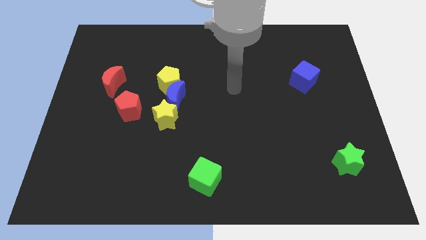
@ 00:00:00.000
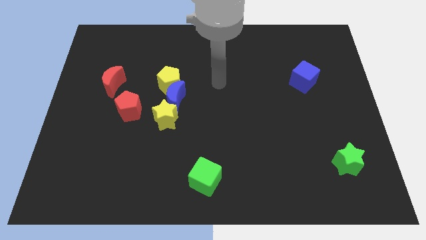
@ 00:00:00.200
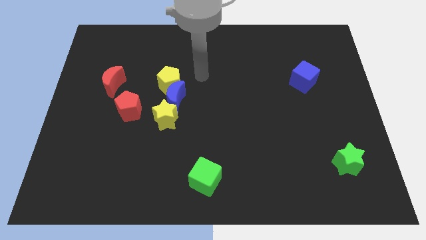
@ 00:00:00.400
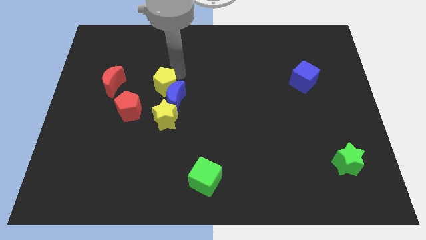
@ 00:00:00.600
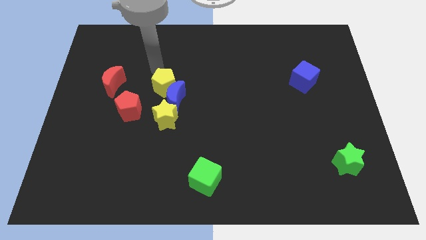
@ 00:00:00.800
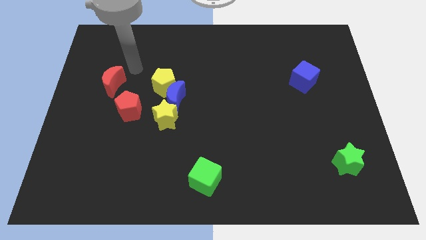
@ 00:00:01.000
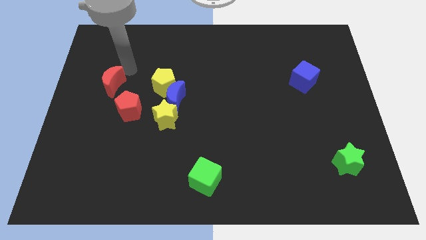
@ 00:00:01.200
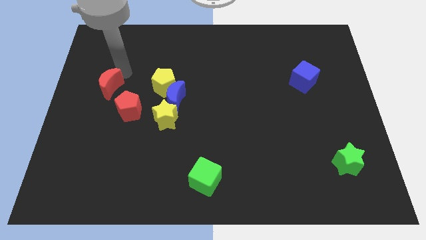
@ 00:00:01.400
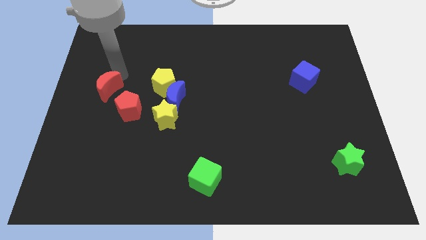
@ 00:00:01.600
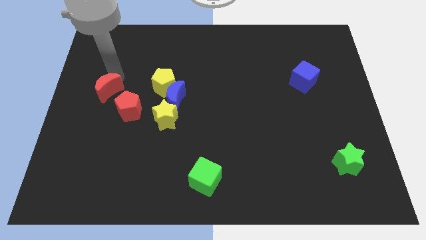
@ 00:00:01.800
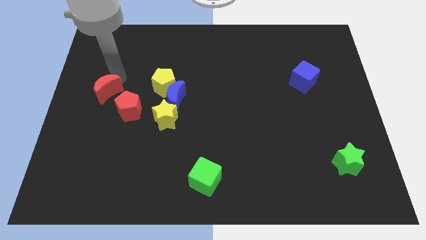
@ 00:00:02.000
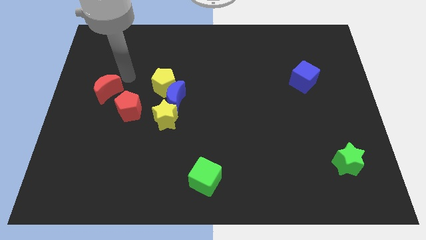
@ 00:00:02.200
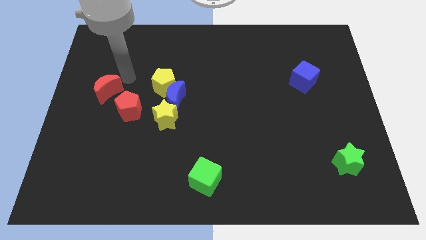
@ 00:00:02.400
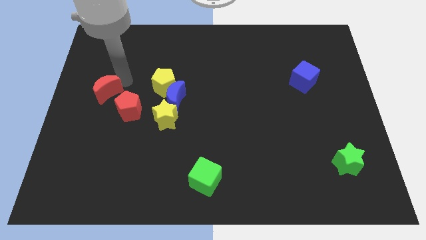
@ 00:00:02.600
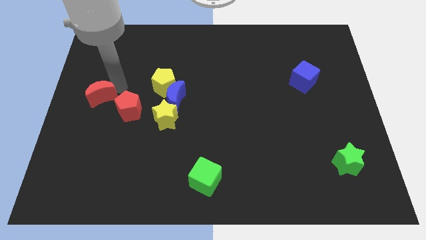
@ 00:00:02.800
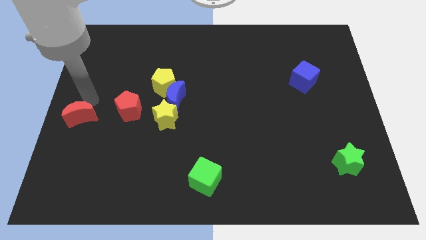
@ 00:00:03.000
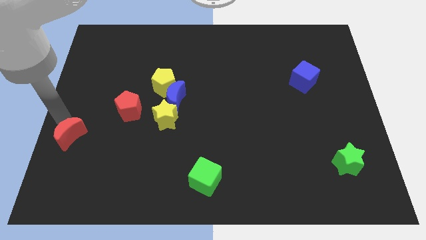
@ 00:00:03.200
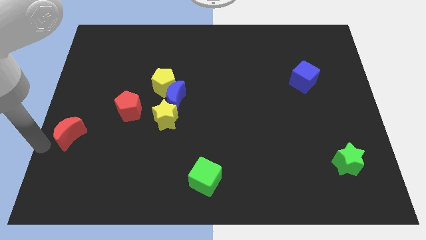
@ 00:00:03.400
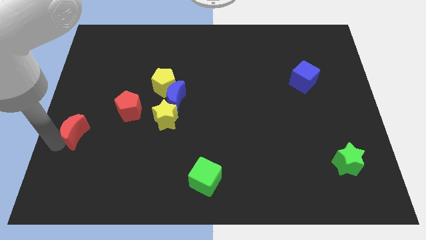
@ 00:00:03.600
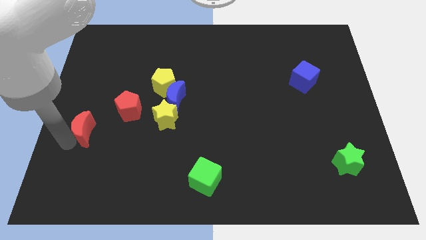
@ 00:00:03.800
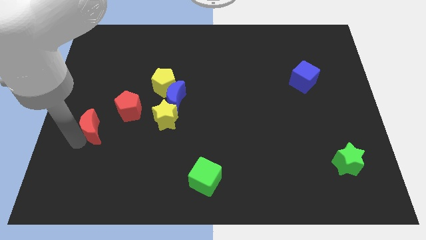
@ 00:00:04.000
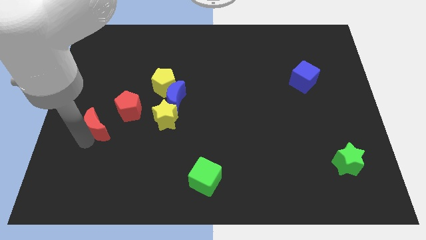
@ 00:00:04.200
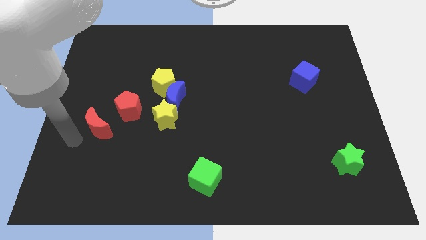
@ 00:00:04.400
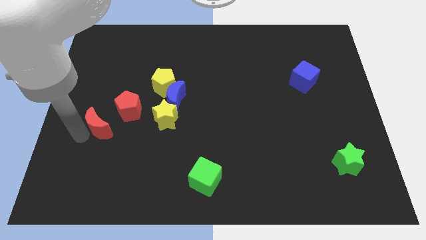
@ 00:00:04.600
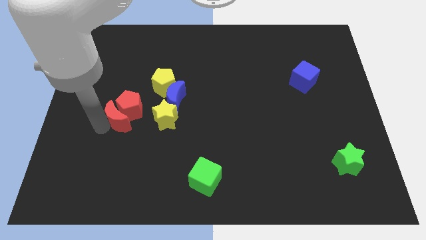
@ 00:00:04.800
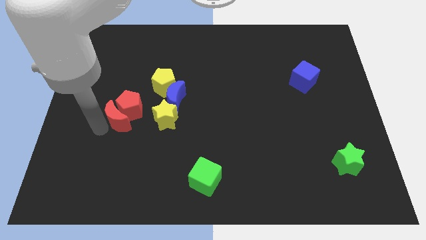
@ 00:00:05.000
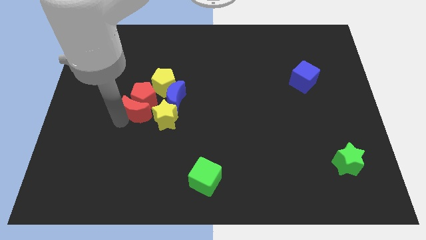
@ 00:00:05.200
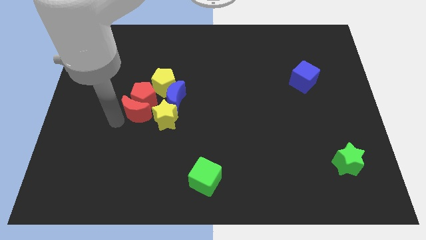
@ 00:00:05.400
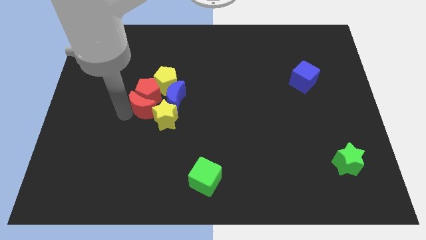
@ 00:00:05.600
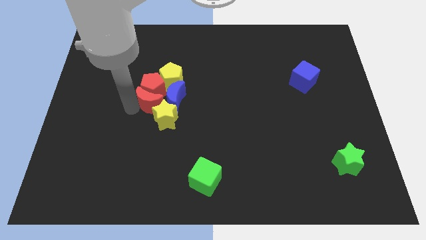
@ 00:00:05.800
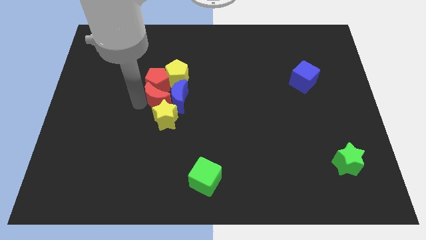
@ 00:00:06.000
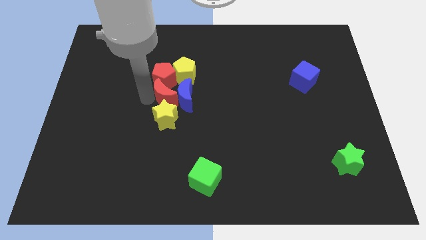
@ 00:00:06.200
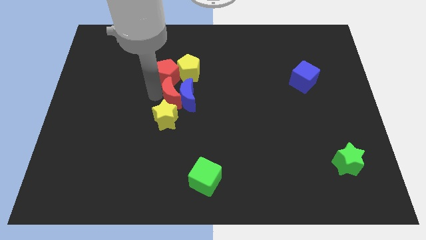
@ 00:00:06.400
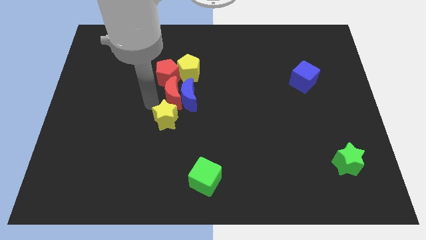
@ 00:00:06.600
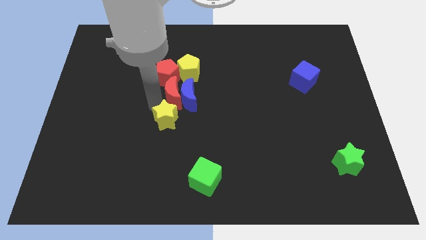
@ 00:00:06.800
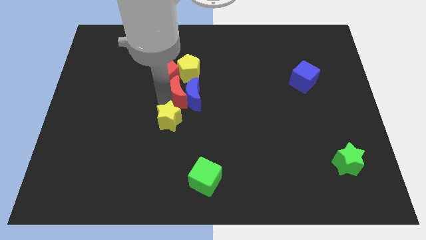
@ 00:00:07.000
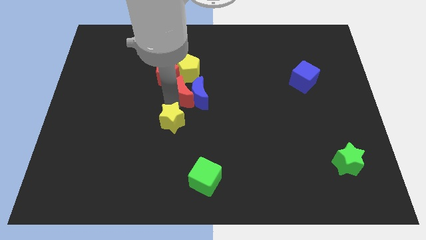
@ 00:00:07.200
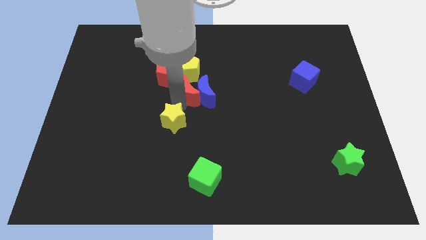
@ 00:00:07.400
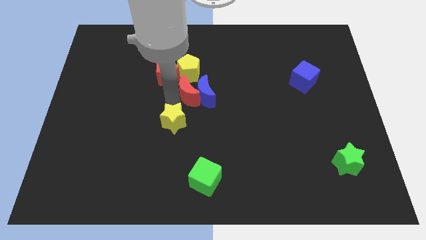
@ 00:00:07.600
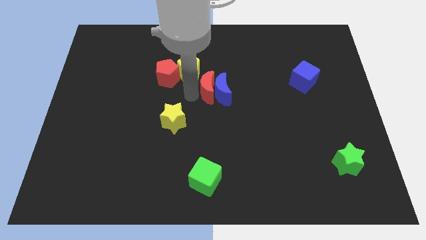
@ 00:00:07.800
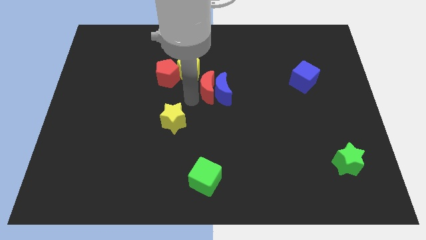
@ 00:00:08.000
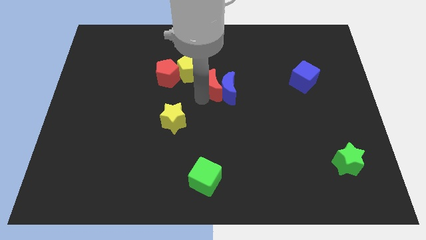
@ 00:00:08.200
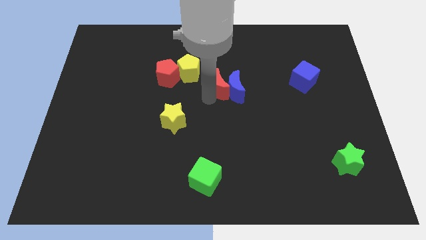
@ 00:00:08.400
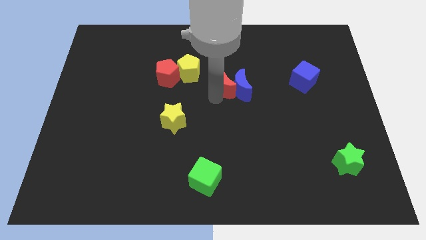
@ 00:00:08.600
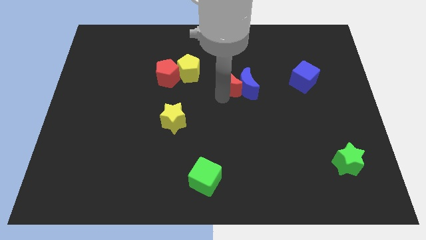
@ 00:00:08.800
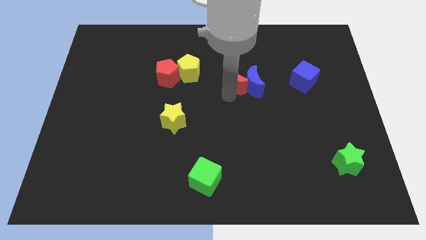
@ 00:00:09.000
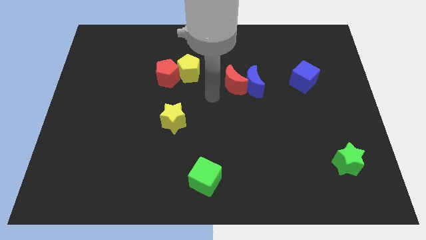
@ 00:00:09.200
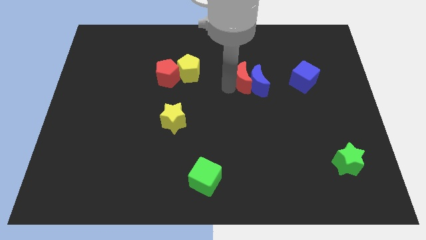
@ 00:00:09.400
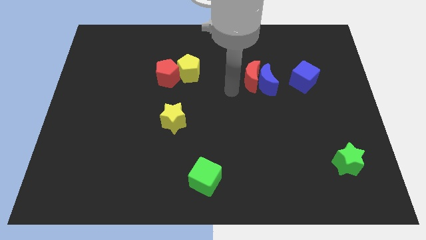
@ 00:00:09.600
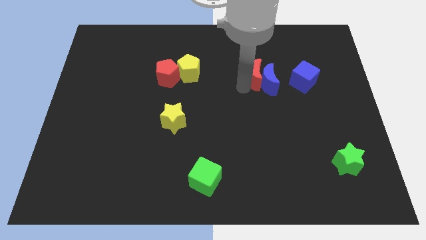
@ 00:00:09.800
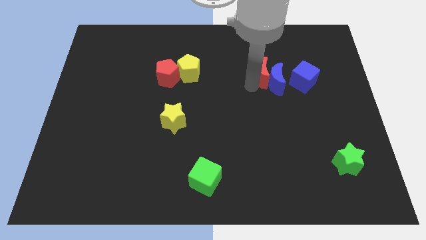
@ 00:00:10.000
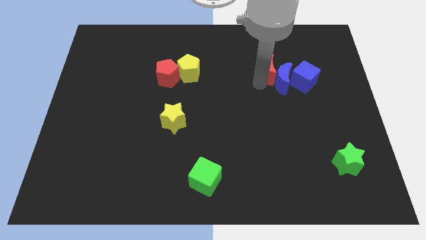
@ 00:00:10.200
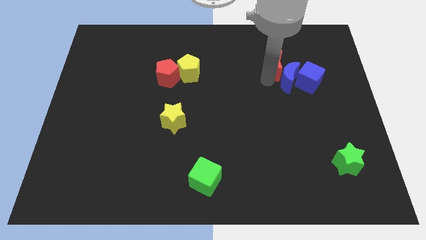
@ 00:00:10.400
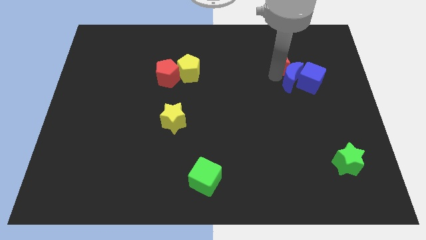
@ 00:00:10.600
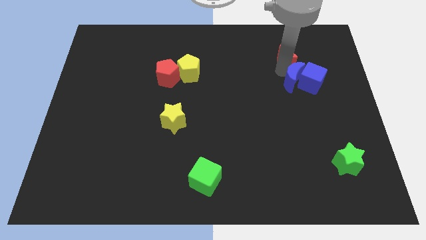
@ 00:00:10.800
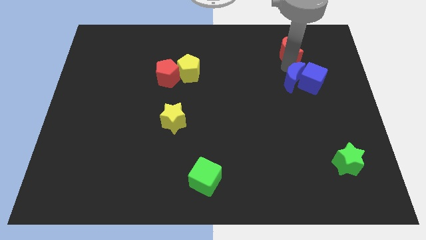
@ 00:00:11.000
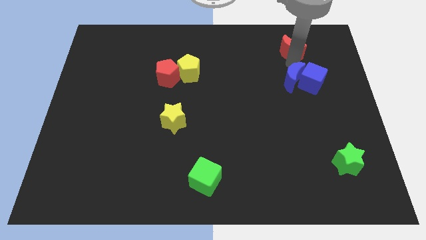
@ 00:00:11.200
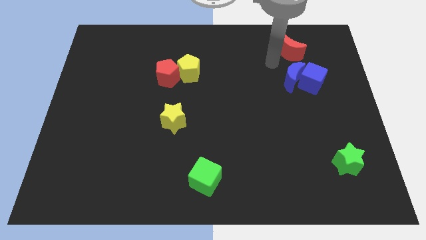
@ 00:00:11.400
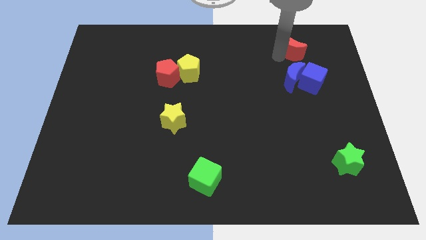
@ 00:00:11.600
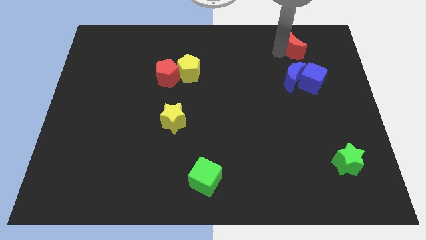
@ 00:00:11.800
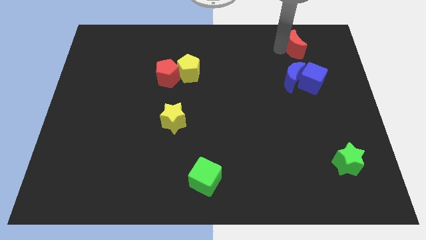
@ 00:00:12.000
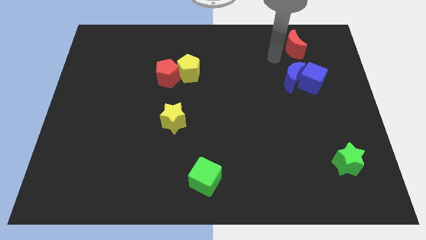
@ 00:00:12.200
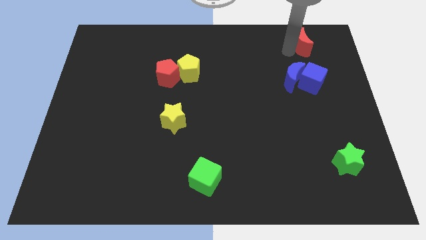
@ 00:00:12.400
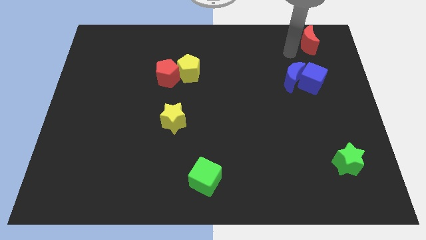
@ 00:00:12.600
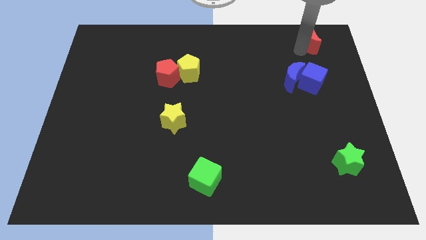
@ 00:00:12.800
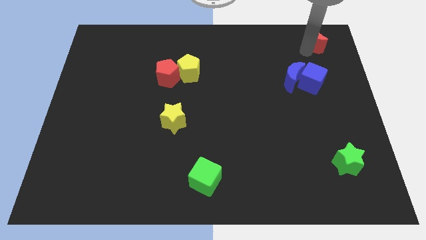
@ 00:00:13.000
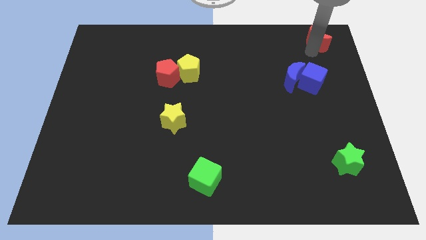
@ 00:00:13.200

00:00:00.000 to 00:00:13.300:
slide the red moon to the upper right corner
